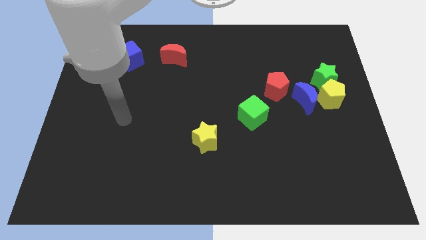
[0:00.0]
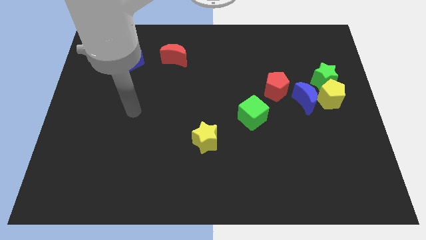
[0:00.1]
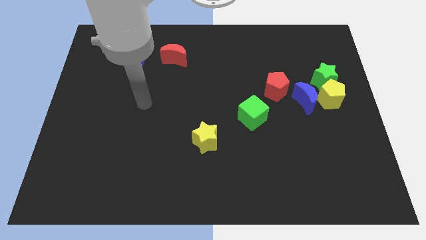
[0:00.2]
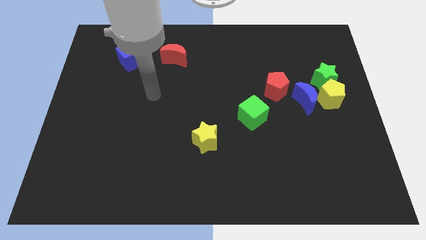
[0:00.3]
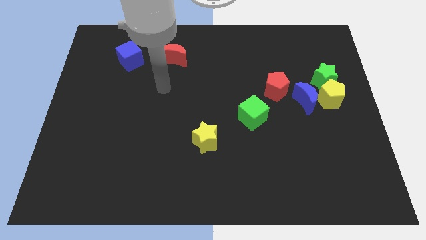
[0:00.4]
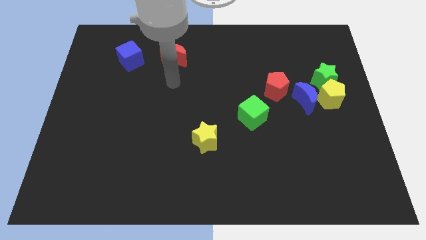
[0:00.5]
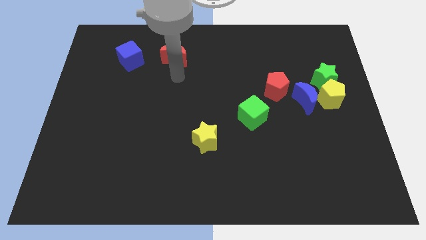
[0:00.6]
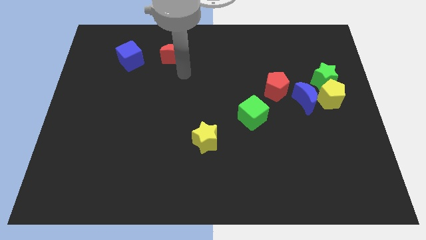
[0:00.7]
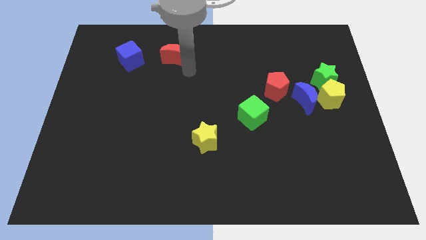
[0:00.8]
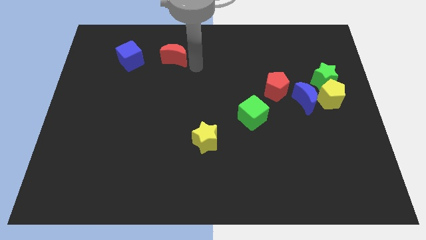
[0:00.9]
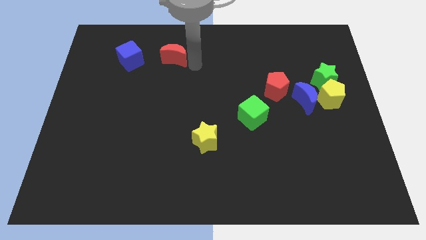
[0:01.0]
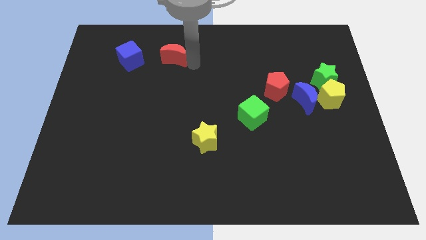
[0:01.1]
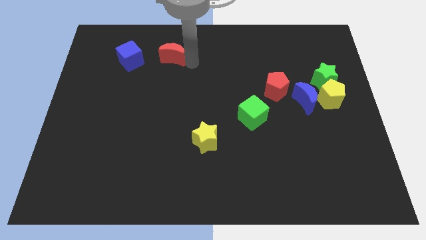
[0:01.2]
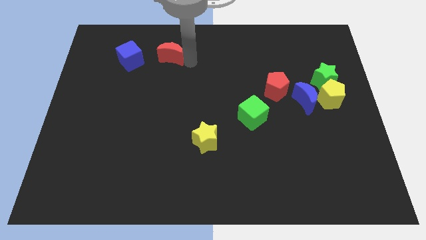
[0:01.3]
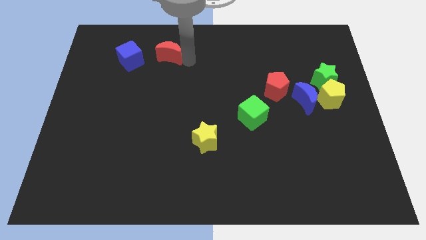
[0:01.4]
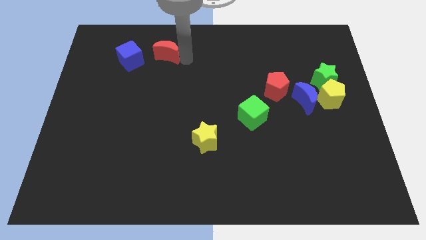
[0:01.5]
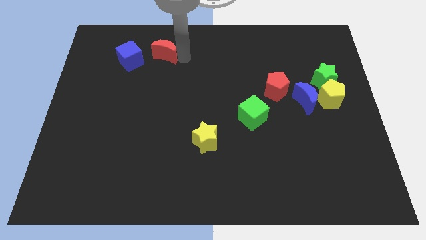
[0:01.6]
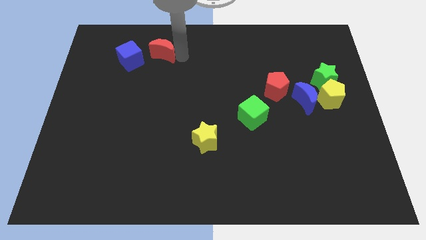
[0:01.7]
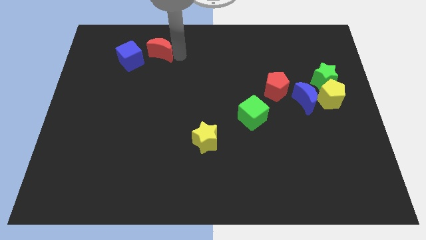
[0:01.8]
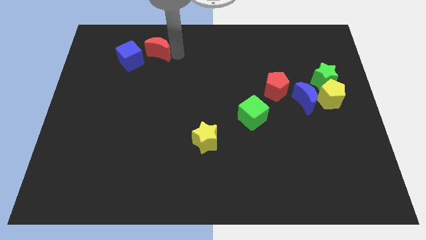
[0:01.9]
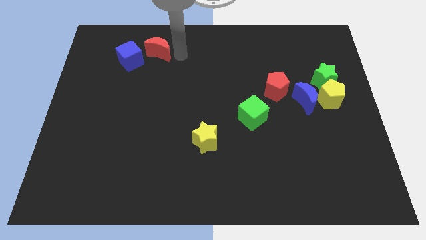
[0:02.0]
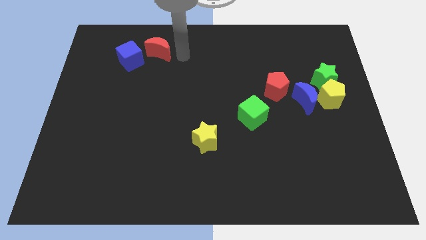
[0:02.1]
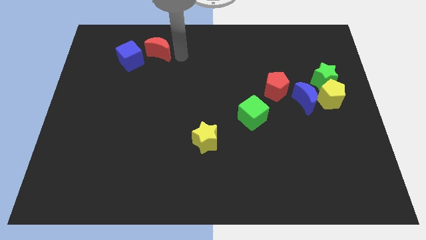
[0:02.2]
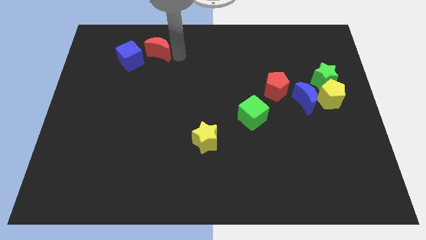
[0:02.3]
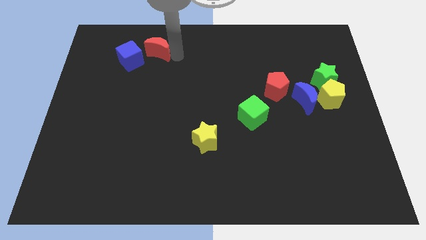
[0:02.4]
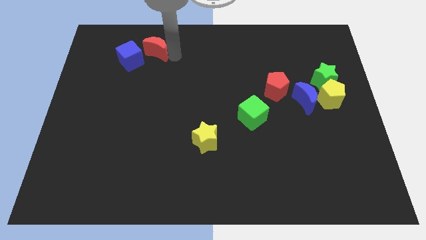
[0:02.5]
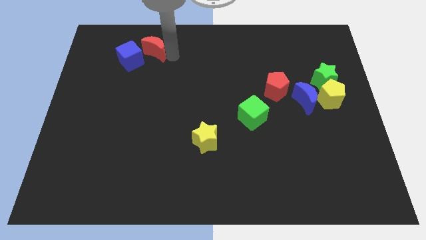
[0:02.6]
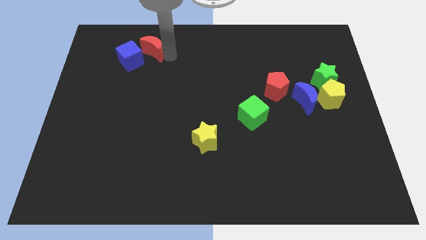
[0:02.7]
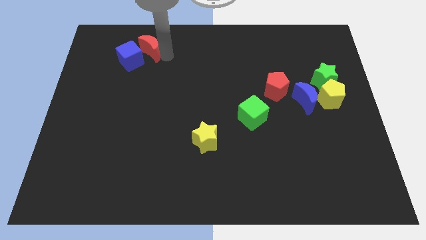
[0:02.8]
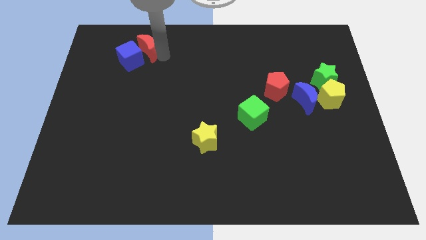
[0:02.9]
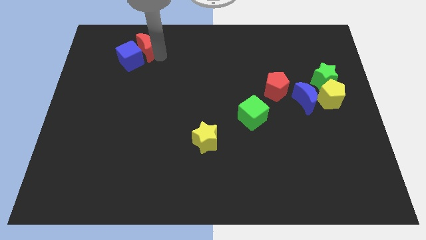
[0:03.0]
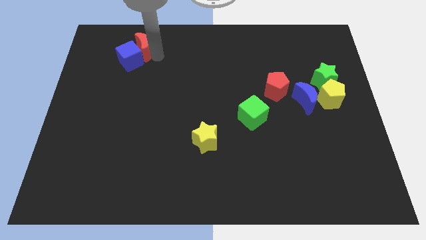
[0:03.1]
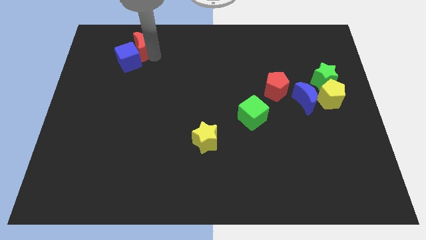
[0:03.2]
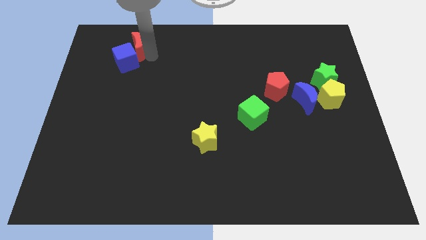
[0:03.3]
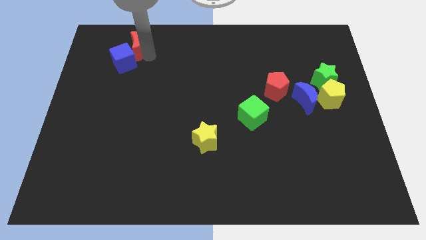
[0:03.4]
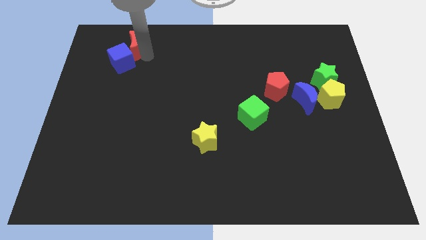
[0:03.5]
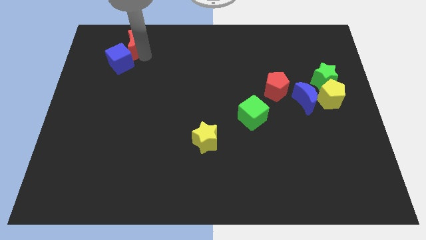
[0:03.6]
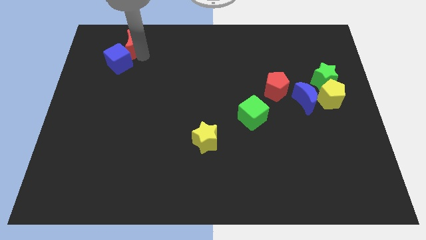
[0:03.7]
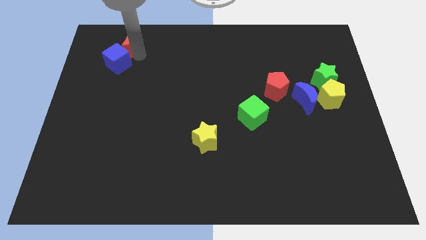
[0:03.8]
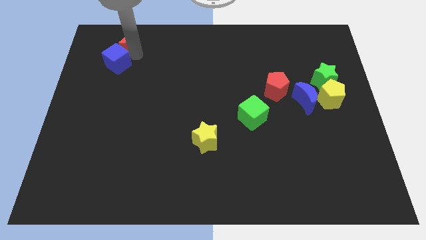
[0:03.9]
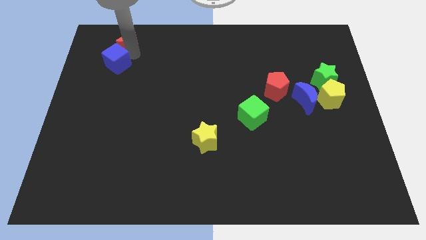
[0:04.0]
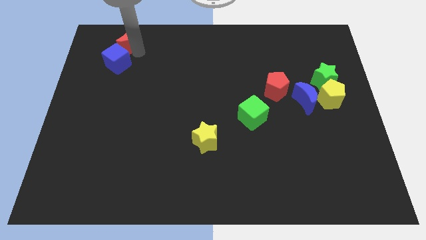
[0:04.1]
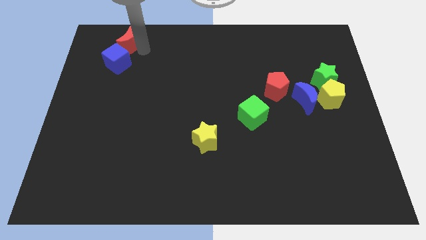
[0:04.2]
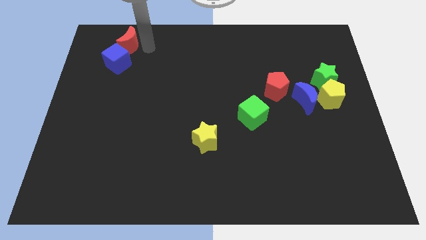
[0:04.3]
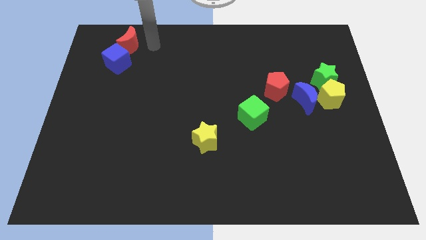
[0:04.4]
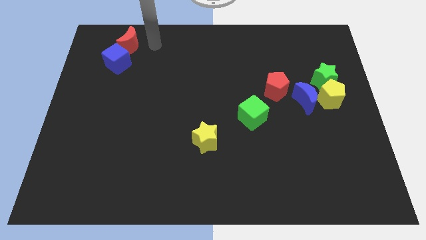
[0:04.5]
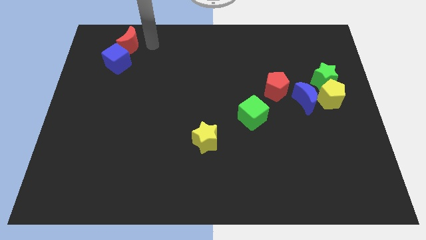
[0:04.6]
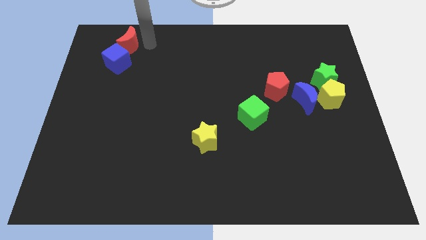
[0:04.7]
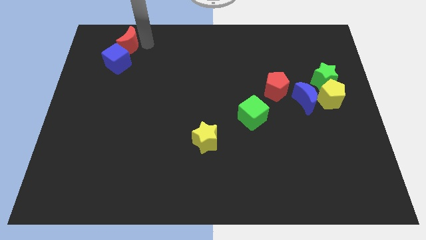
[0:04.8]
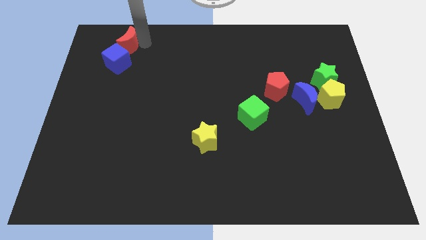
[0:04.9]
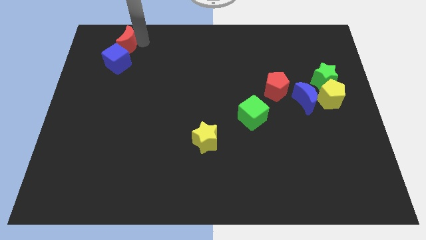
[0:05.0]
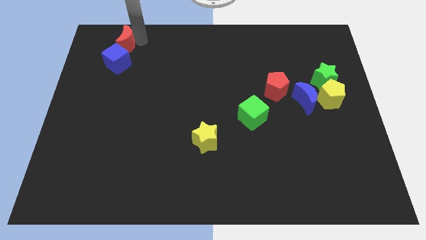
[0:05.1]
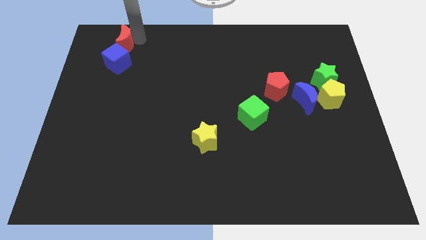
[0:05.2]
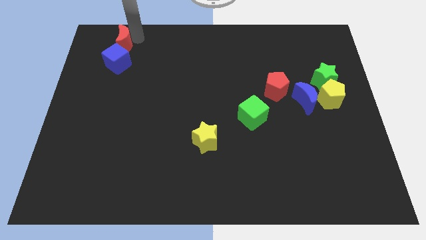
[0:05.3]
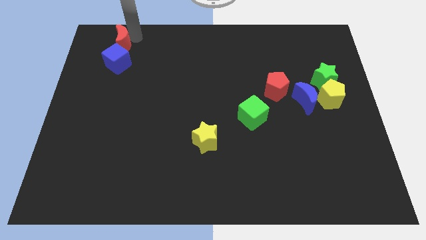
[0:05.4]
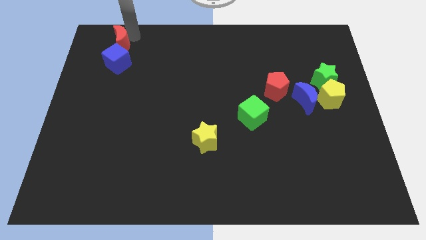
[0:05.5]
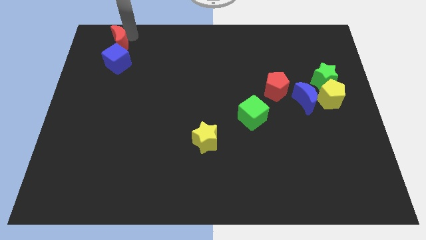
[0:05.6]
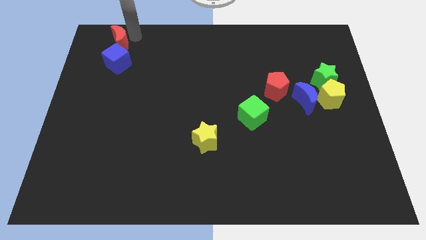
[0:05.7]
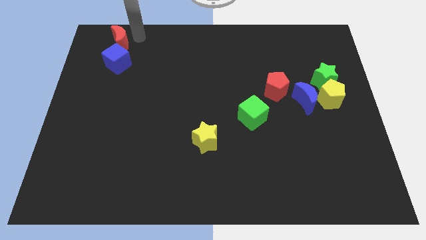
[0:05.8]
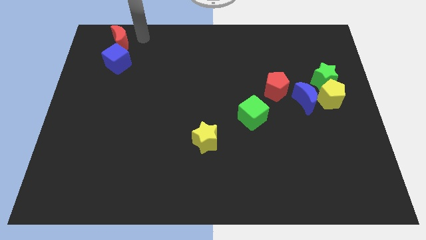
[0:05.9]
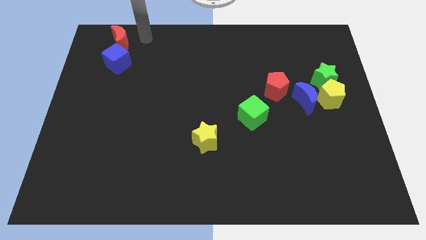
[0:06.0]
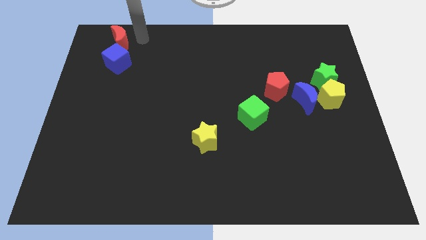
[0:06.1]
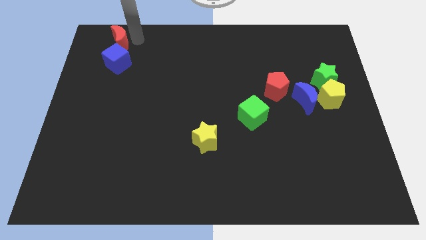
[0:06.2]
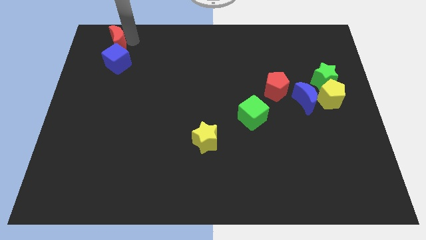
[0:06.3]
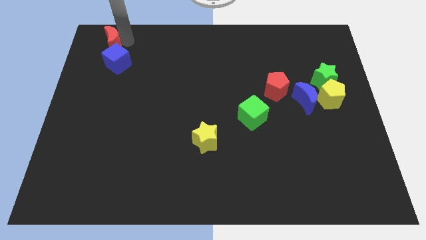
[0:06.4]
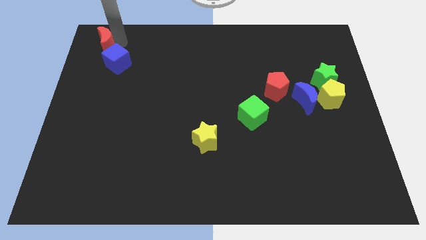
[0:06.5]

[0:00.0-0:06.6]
put the red moon to the upper left corner
